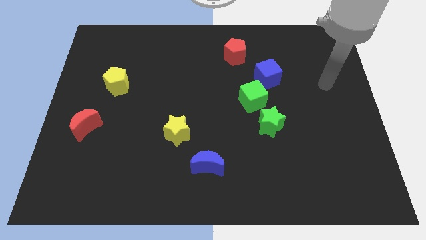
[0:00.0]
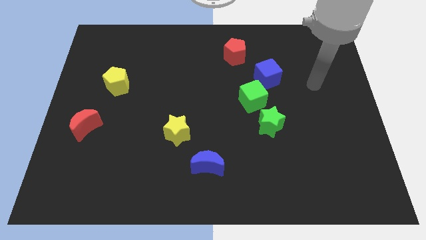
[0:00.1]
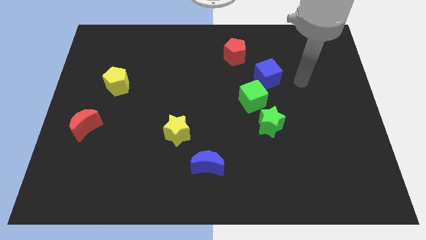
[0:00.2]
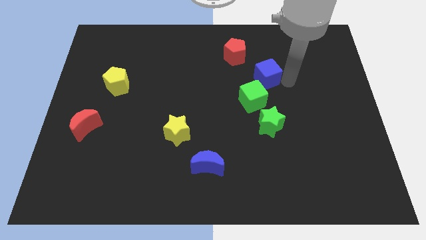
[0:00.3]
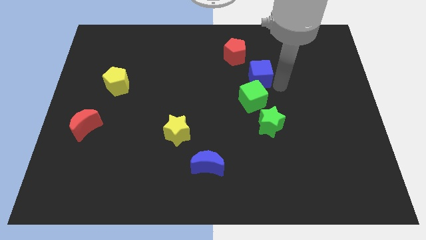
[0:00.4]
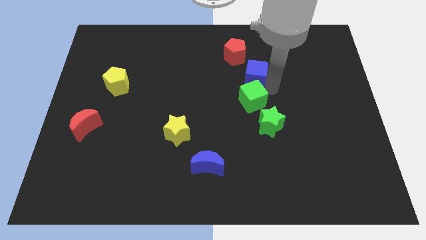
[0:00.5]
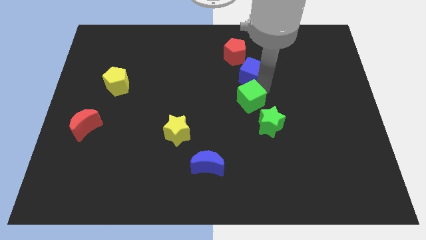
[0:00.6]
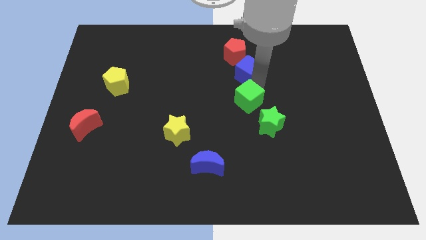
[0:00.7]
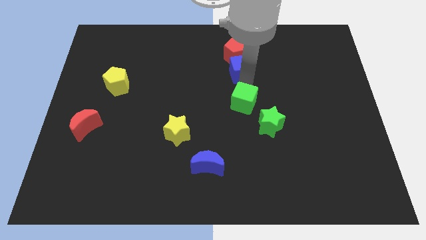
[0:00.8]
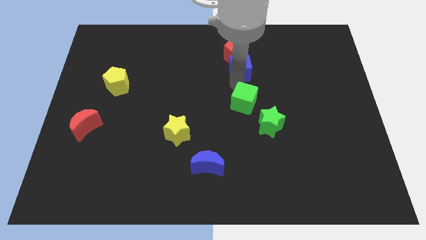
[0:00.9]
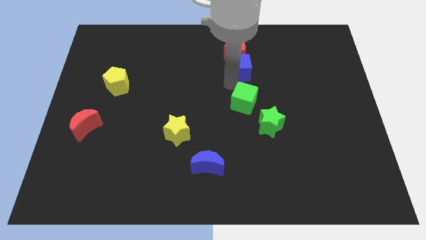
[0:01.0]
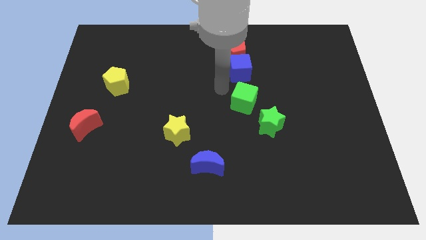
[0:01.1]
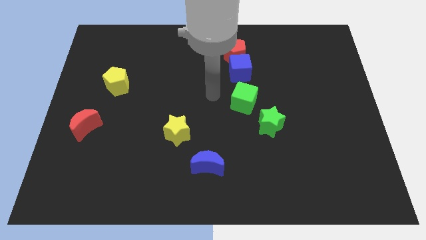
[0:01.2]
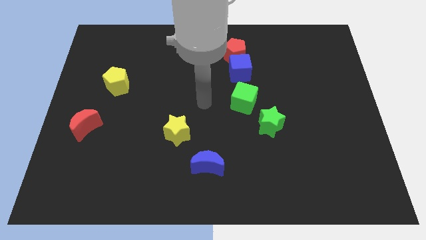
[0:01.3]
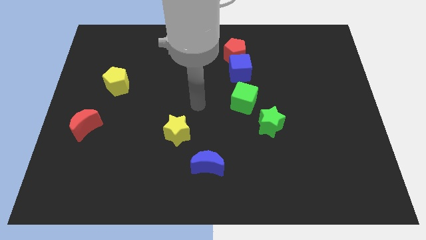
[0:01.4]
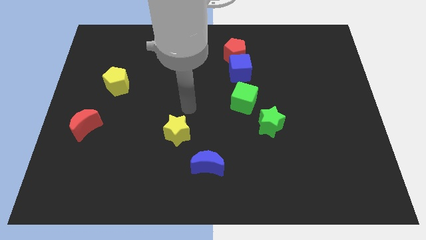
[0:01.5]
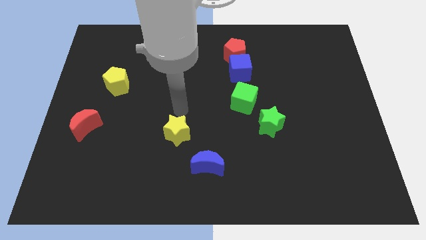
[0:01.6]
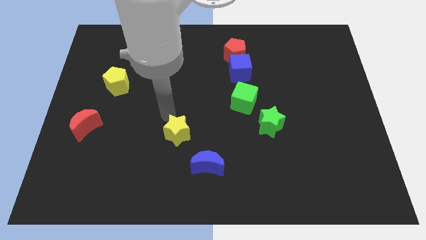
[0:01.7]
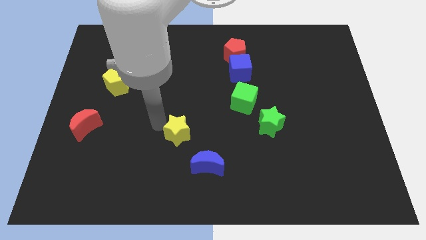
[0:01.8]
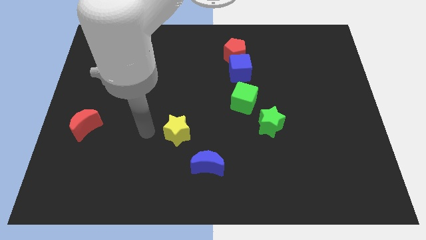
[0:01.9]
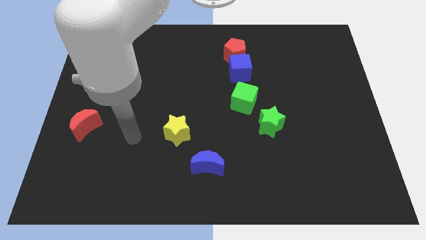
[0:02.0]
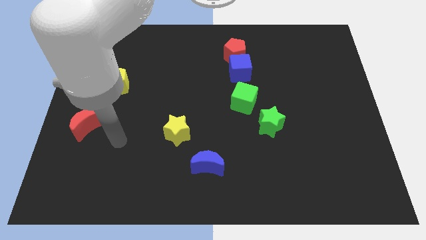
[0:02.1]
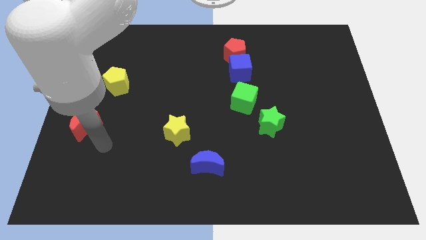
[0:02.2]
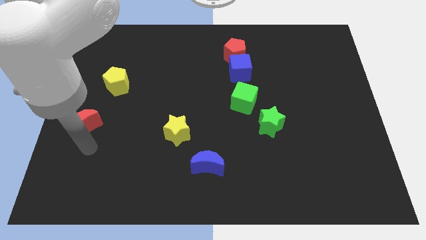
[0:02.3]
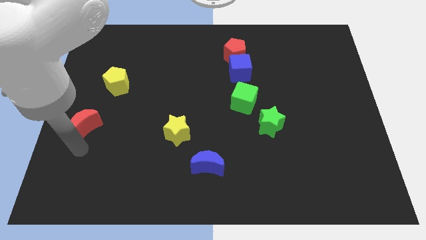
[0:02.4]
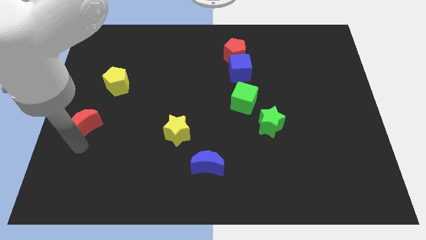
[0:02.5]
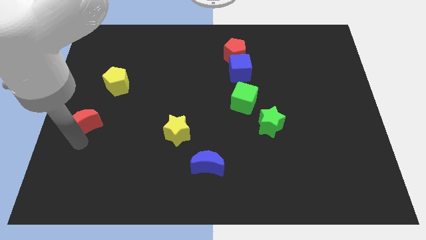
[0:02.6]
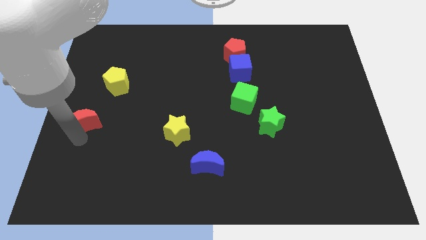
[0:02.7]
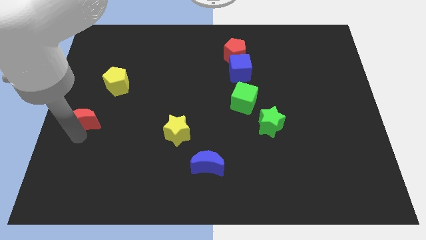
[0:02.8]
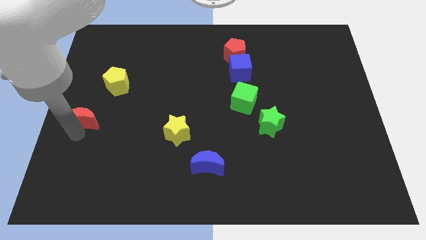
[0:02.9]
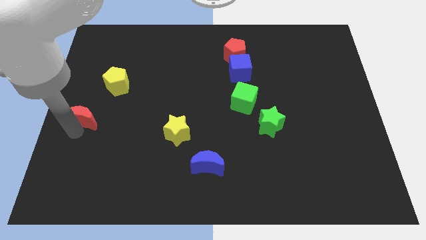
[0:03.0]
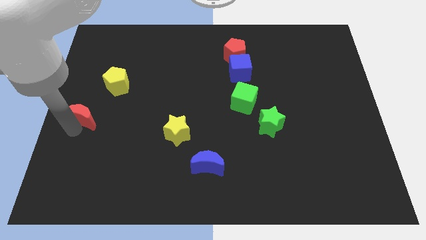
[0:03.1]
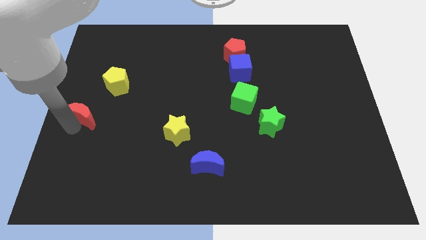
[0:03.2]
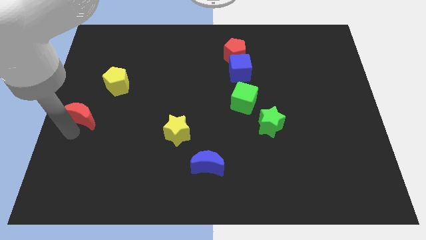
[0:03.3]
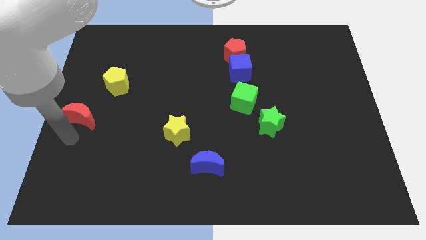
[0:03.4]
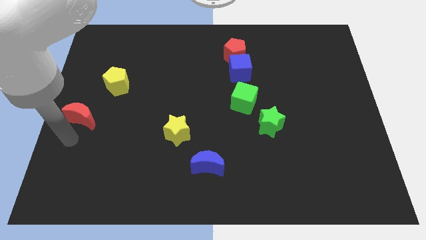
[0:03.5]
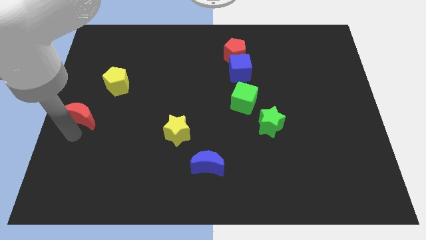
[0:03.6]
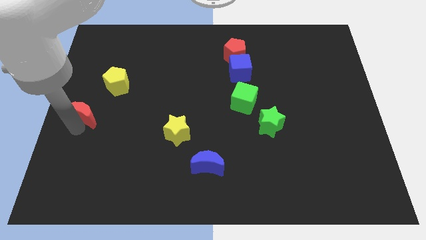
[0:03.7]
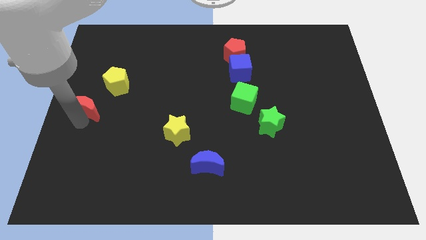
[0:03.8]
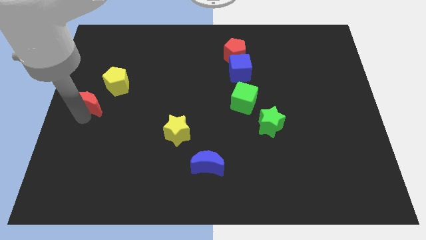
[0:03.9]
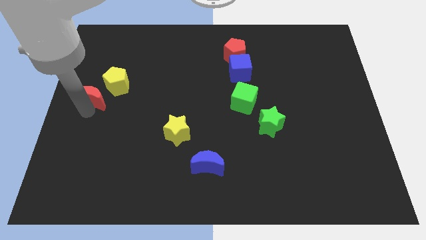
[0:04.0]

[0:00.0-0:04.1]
slide the red moon up a little
